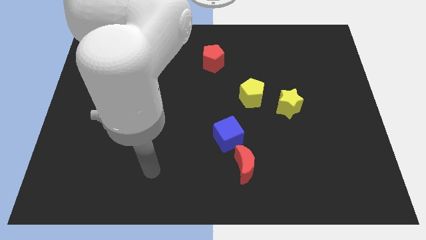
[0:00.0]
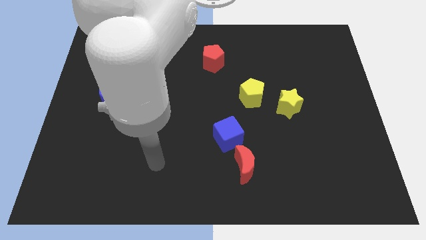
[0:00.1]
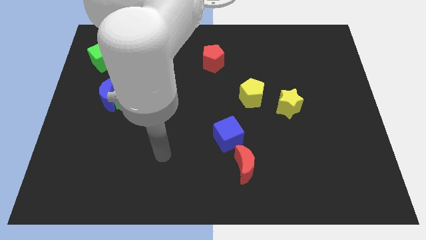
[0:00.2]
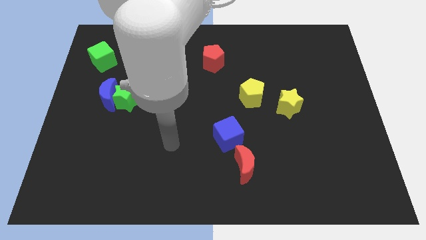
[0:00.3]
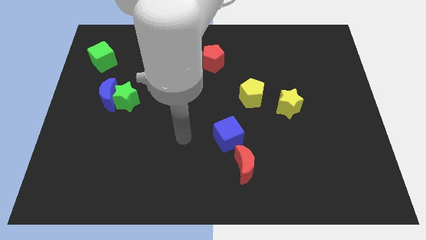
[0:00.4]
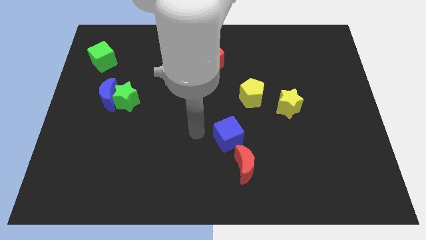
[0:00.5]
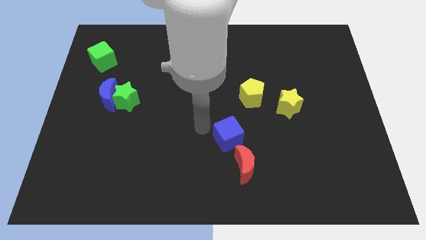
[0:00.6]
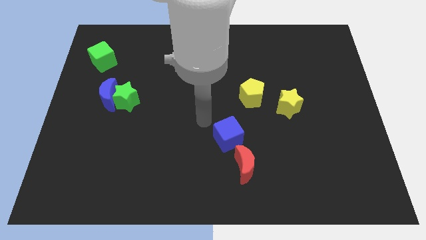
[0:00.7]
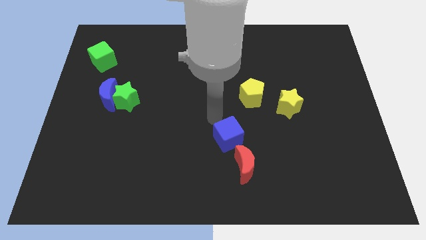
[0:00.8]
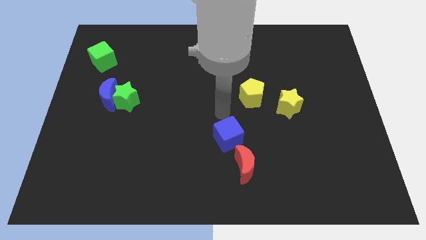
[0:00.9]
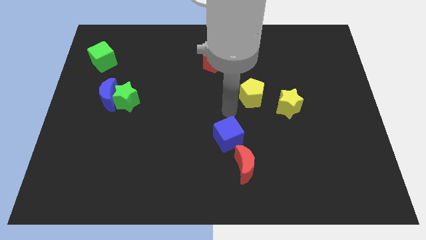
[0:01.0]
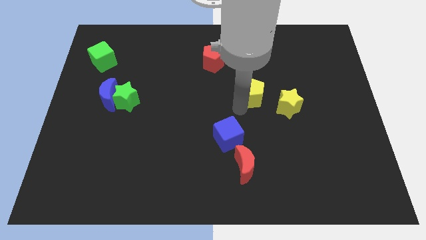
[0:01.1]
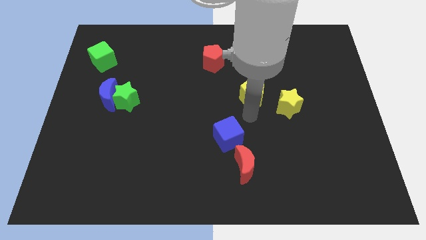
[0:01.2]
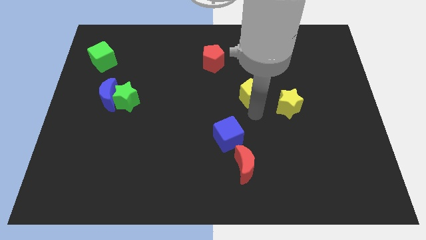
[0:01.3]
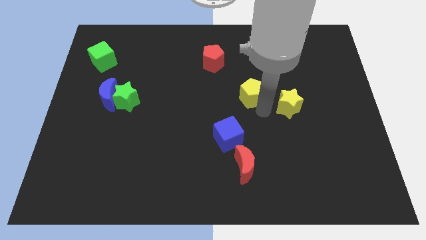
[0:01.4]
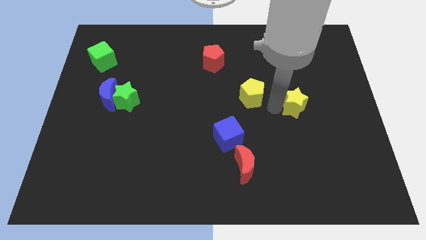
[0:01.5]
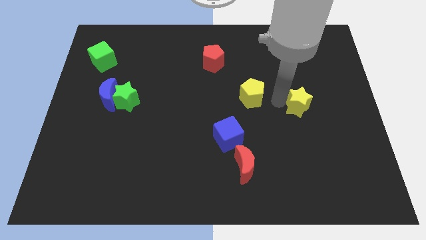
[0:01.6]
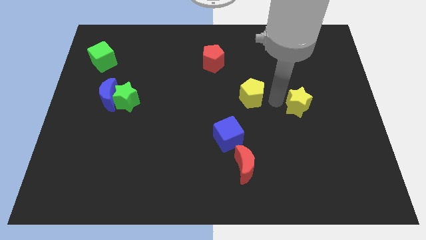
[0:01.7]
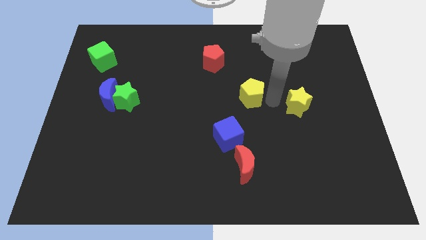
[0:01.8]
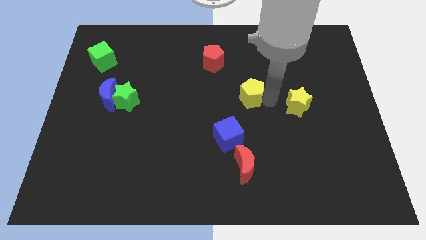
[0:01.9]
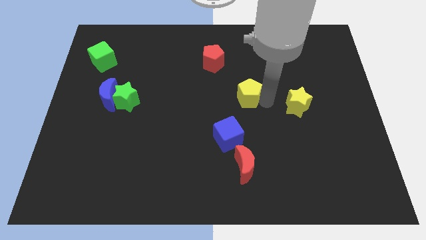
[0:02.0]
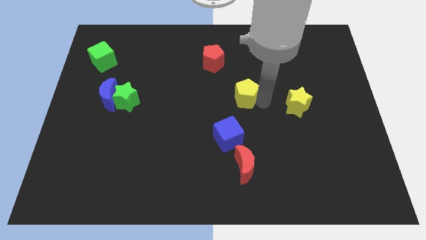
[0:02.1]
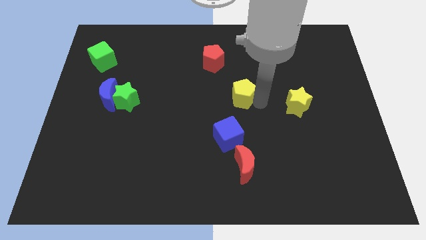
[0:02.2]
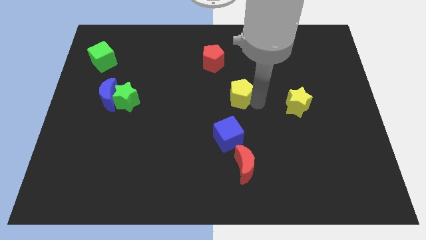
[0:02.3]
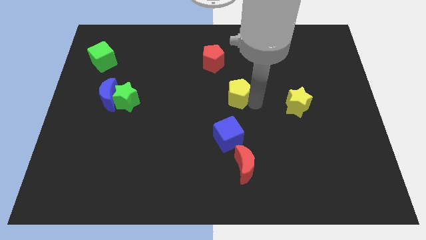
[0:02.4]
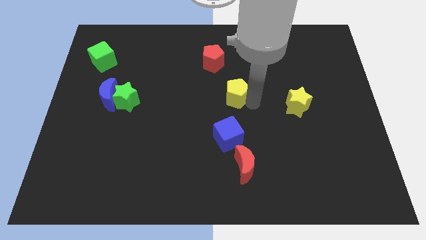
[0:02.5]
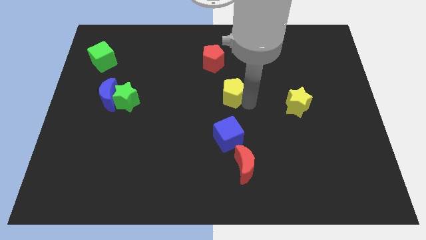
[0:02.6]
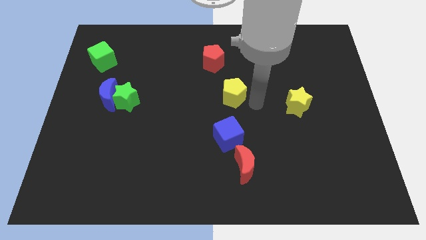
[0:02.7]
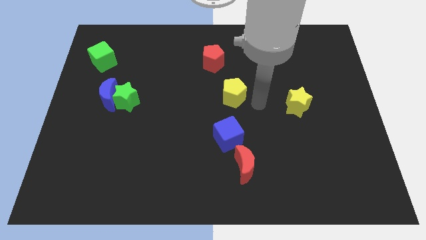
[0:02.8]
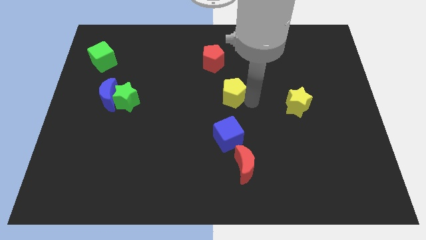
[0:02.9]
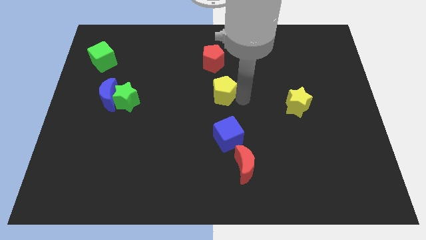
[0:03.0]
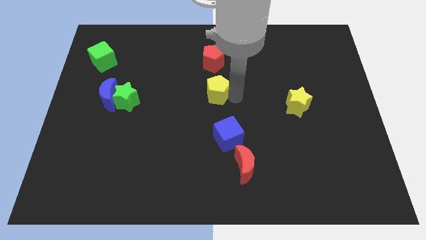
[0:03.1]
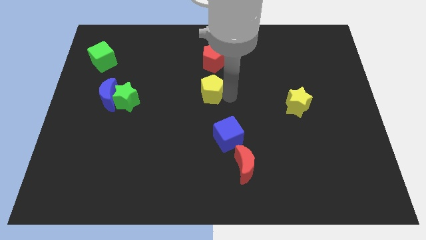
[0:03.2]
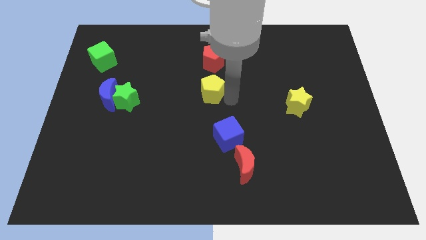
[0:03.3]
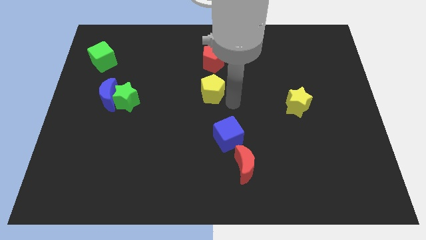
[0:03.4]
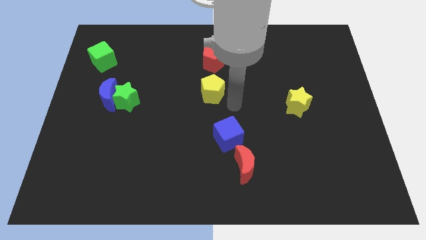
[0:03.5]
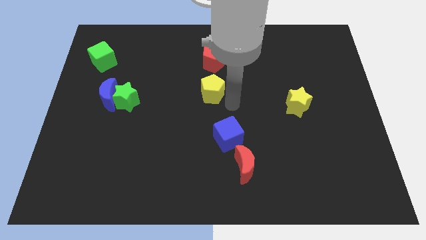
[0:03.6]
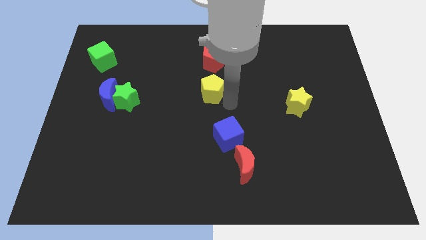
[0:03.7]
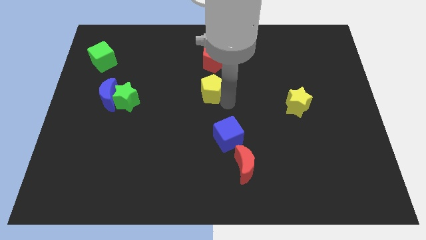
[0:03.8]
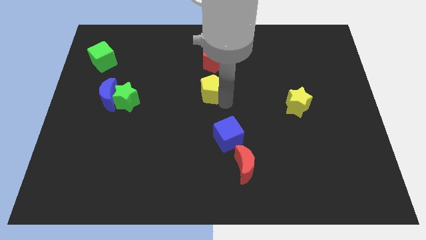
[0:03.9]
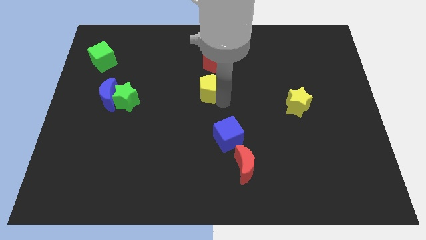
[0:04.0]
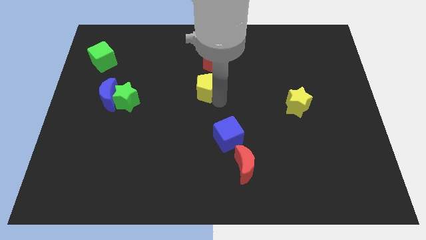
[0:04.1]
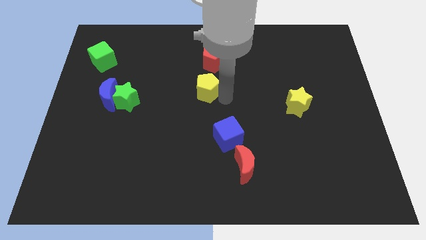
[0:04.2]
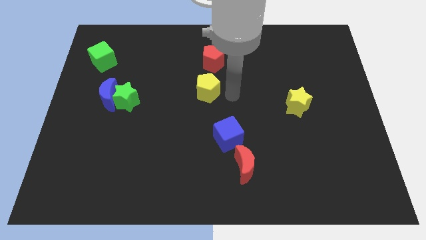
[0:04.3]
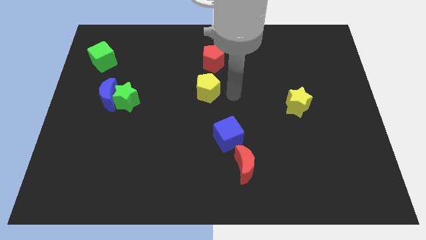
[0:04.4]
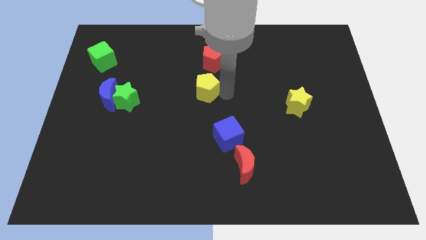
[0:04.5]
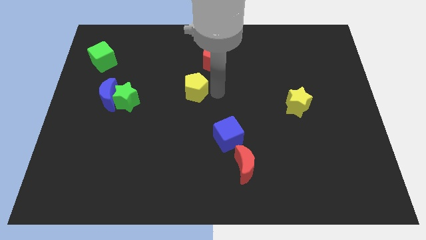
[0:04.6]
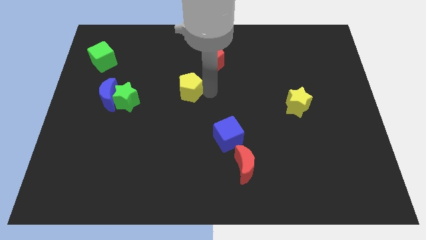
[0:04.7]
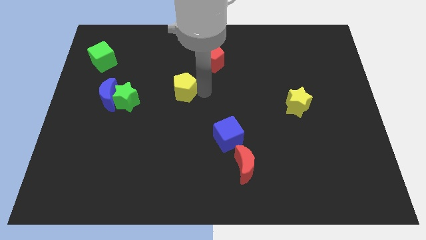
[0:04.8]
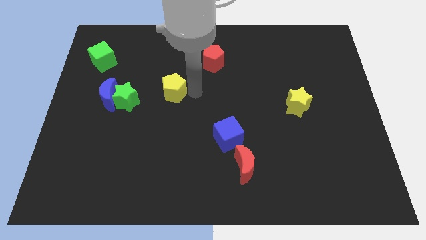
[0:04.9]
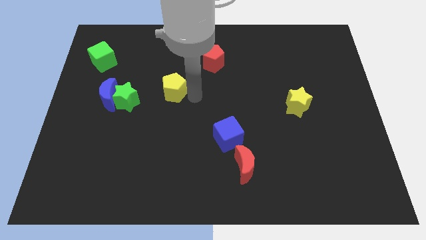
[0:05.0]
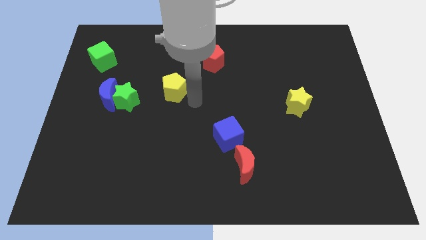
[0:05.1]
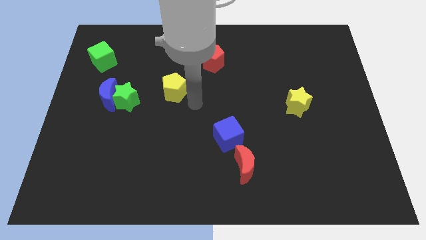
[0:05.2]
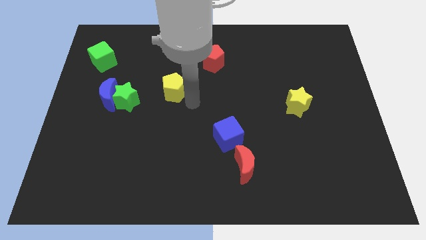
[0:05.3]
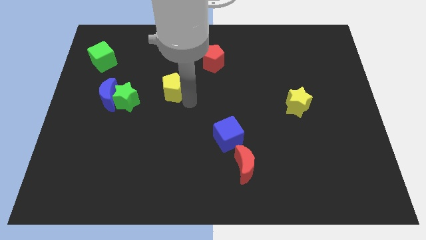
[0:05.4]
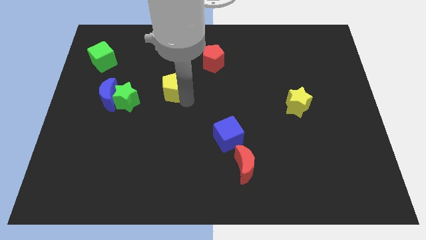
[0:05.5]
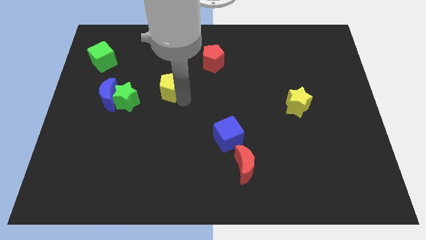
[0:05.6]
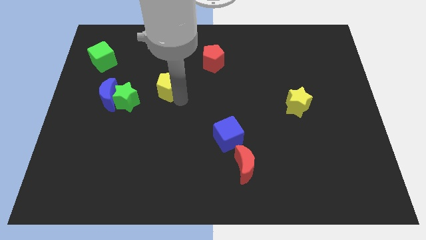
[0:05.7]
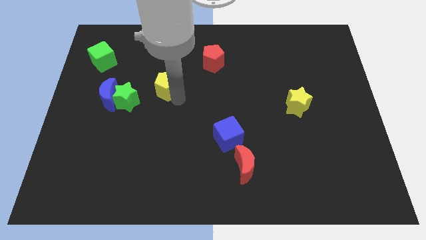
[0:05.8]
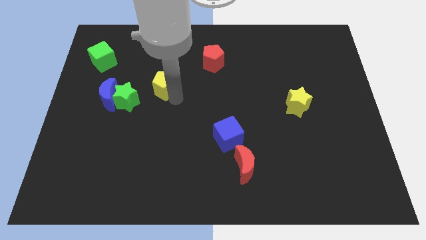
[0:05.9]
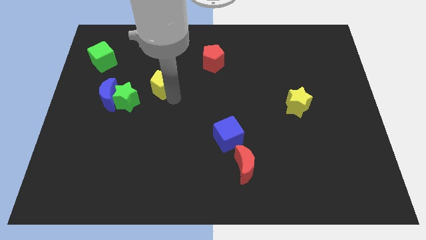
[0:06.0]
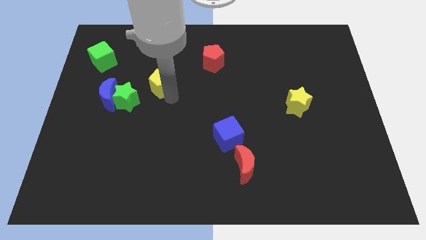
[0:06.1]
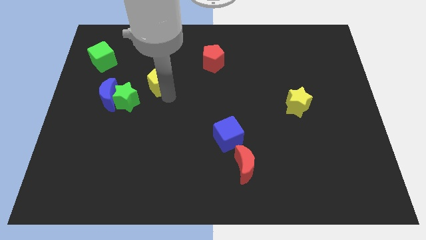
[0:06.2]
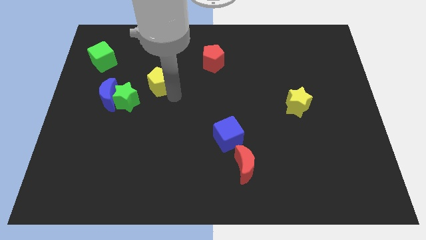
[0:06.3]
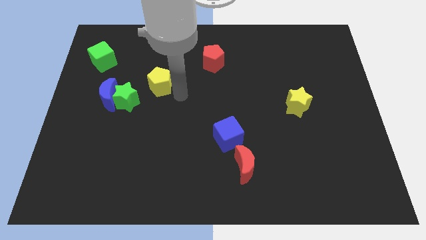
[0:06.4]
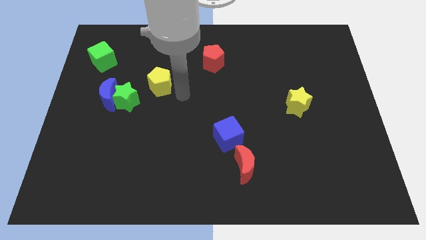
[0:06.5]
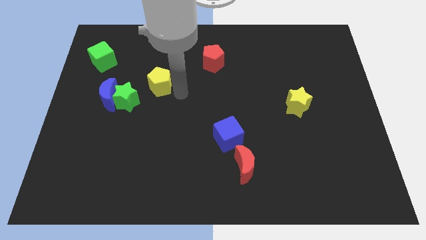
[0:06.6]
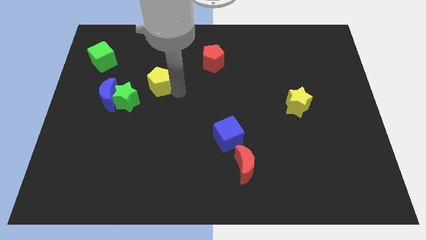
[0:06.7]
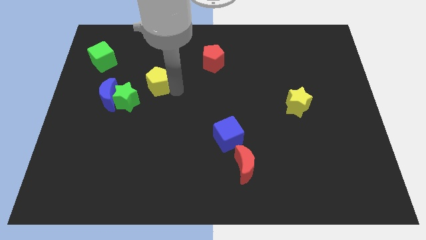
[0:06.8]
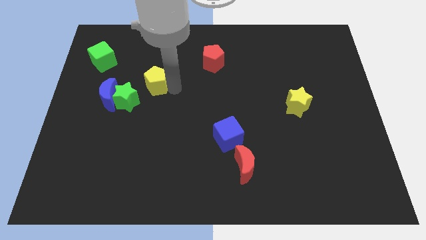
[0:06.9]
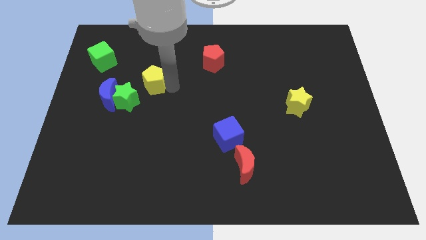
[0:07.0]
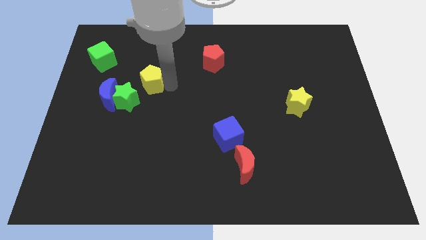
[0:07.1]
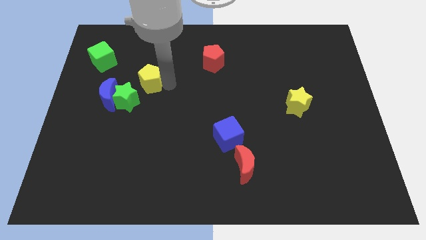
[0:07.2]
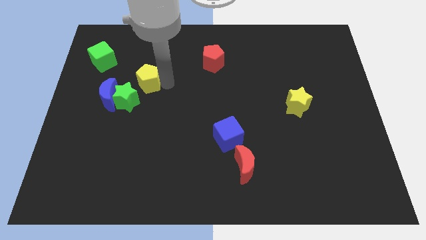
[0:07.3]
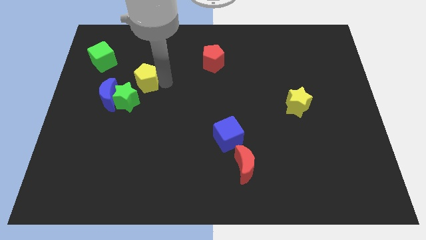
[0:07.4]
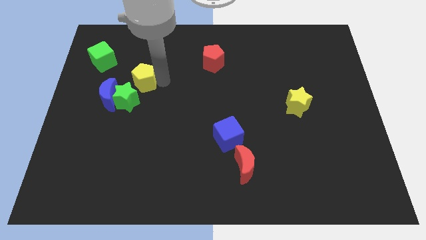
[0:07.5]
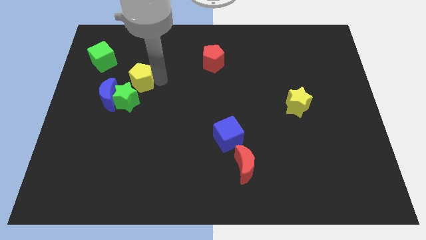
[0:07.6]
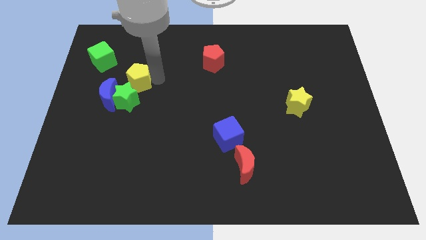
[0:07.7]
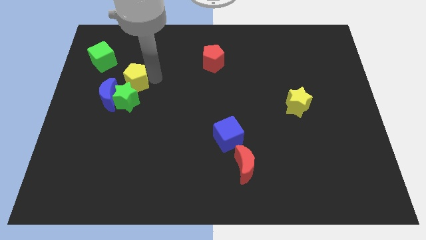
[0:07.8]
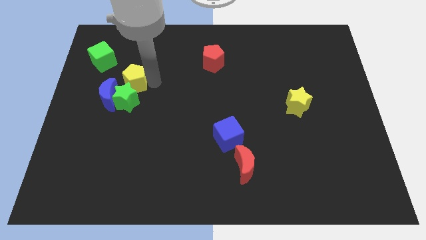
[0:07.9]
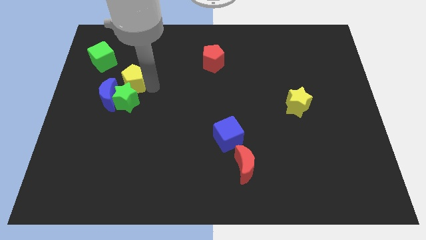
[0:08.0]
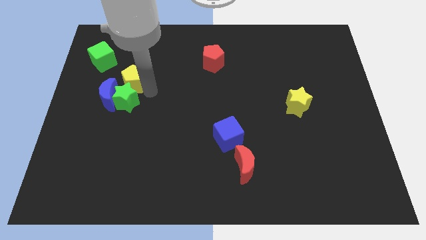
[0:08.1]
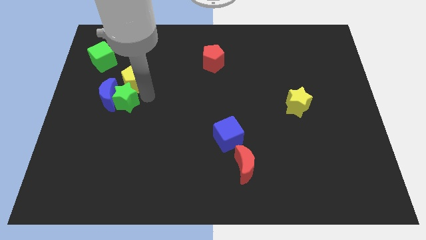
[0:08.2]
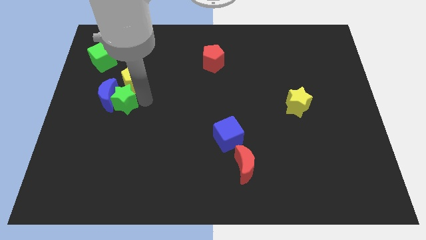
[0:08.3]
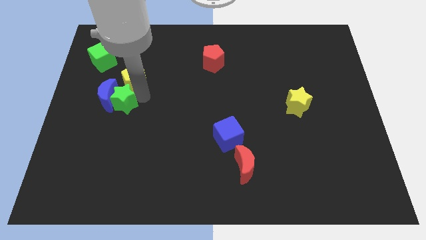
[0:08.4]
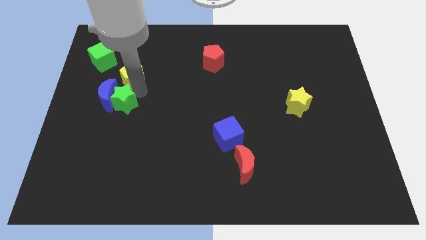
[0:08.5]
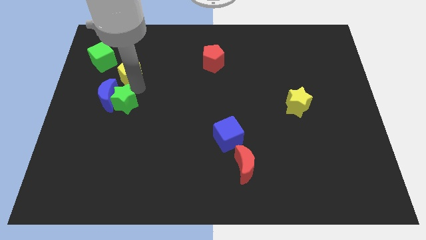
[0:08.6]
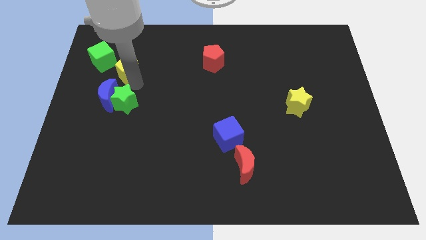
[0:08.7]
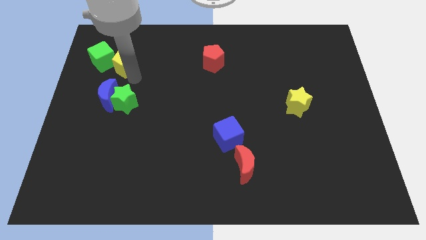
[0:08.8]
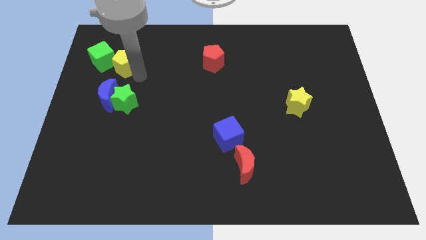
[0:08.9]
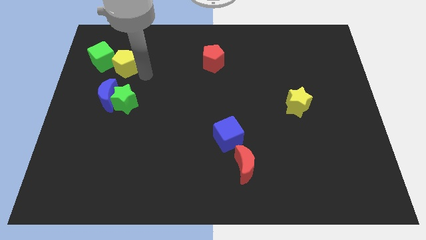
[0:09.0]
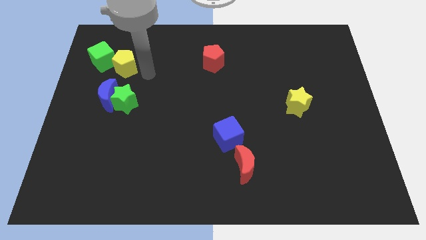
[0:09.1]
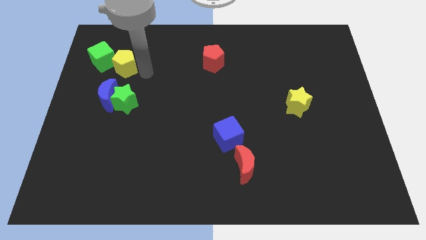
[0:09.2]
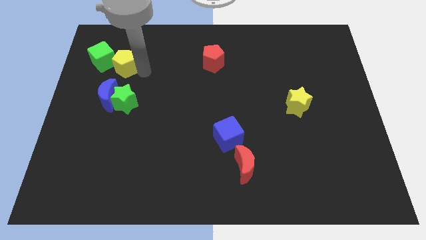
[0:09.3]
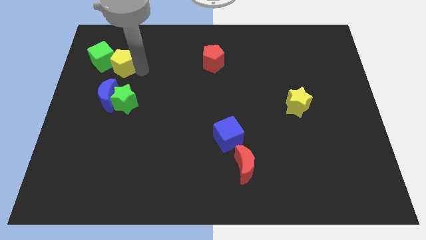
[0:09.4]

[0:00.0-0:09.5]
move the yellow pentagon next to the green cube
